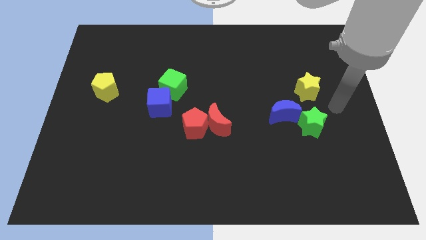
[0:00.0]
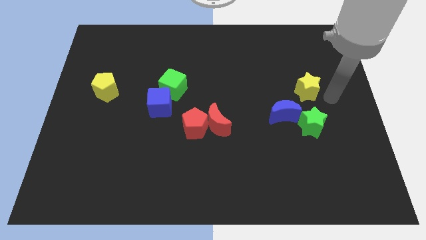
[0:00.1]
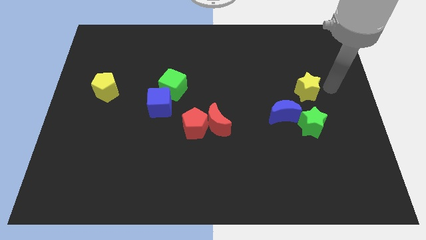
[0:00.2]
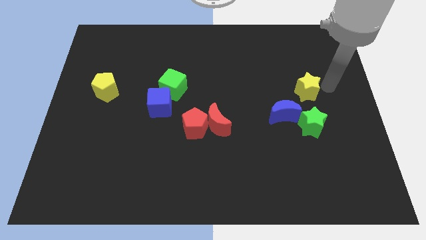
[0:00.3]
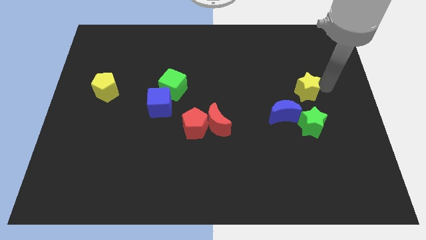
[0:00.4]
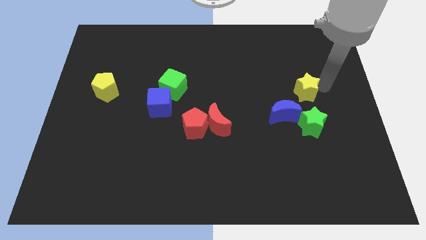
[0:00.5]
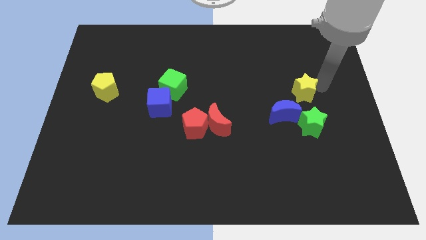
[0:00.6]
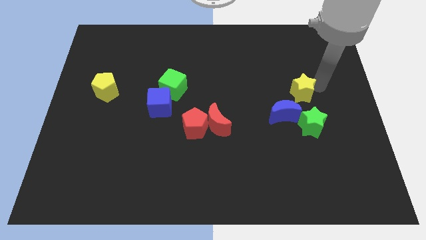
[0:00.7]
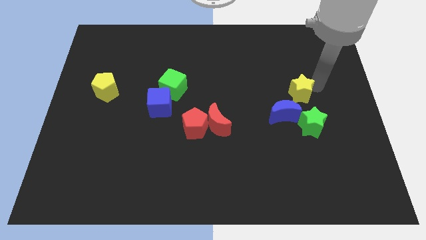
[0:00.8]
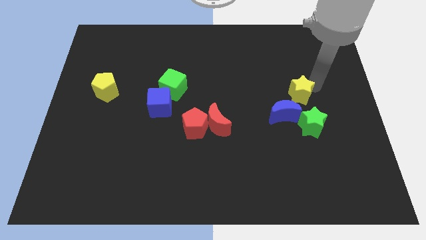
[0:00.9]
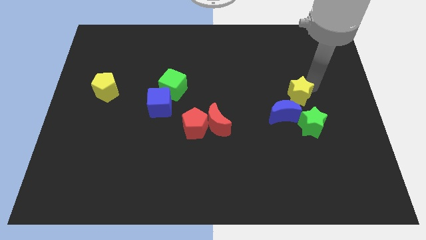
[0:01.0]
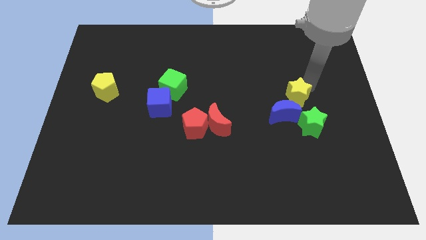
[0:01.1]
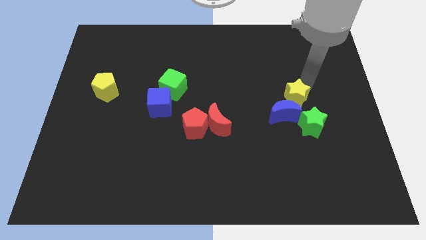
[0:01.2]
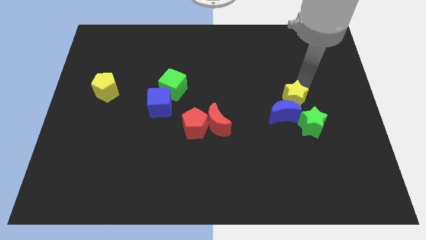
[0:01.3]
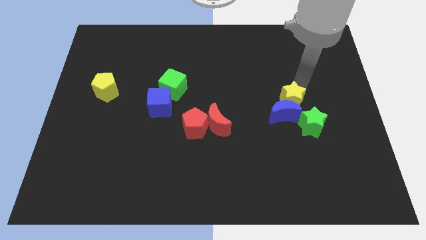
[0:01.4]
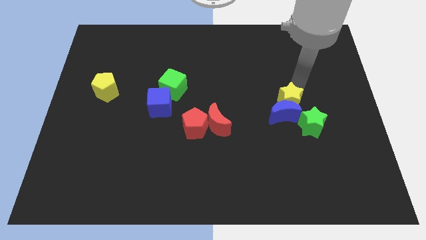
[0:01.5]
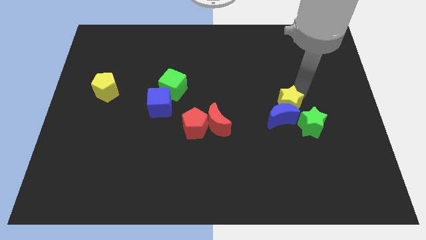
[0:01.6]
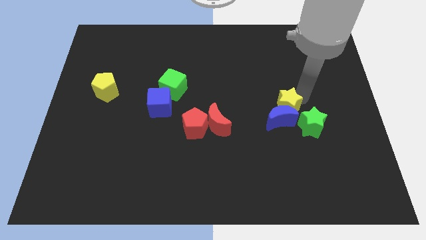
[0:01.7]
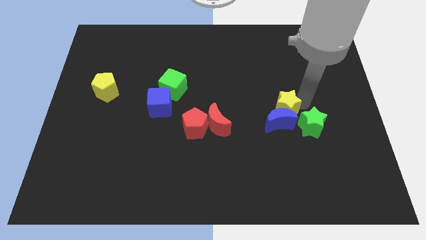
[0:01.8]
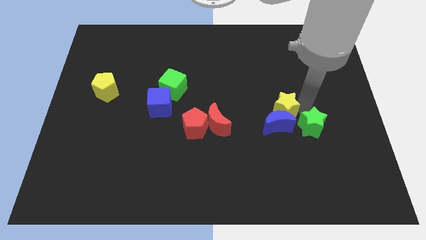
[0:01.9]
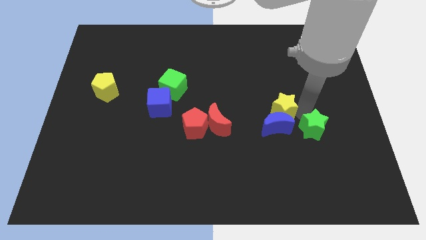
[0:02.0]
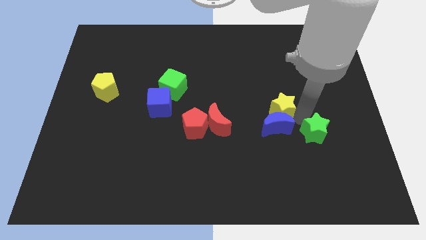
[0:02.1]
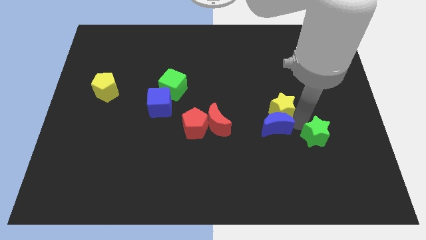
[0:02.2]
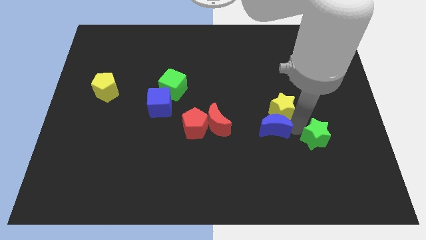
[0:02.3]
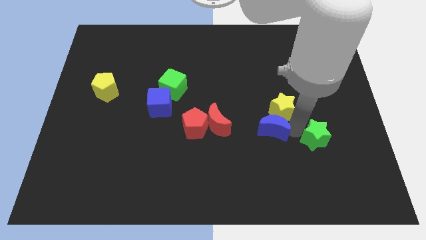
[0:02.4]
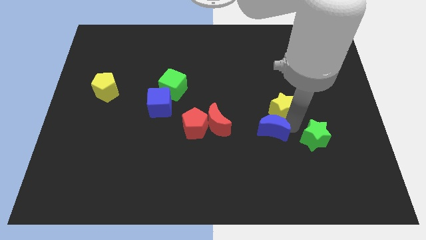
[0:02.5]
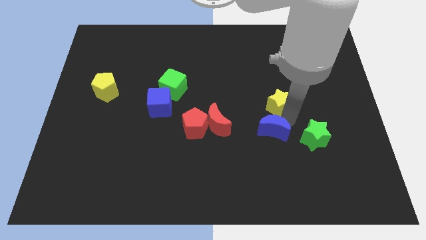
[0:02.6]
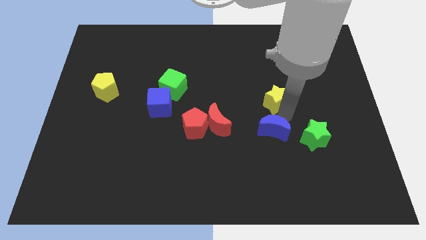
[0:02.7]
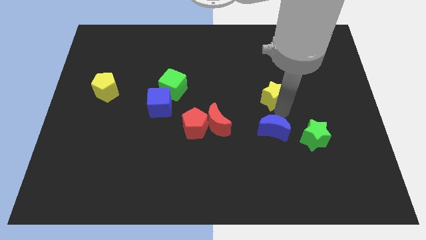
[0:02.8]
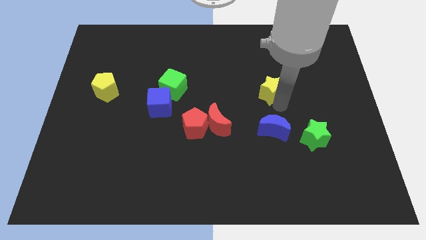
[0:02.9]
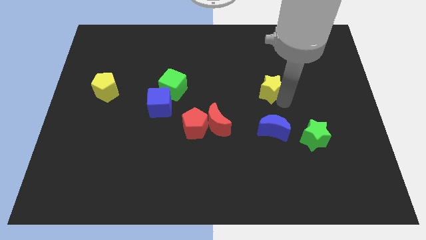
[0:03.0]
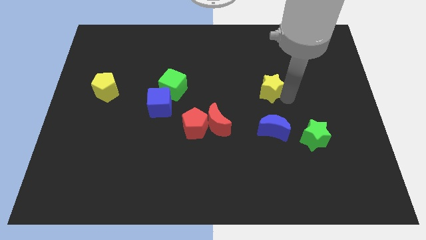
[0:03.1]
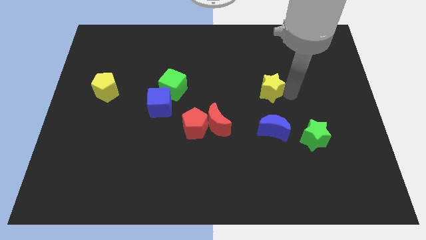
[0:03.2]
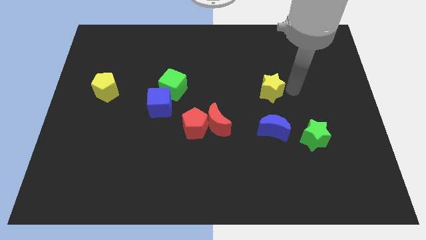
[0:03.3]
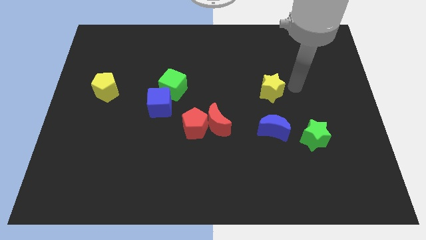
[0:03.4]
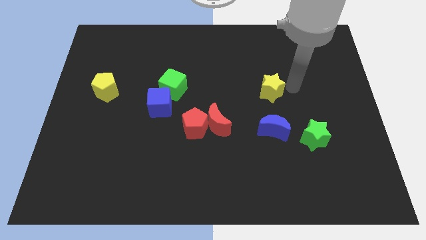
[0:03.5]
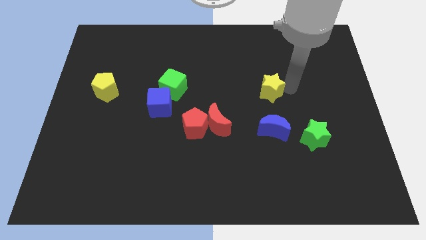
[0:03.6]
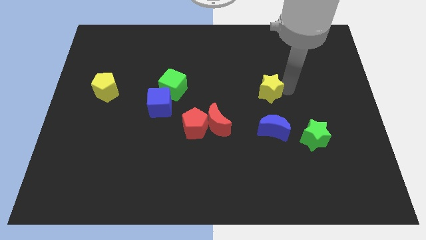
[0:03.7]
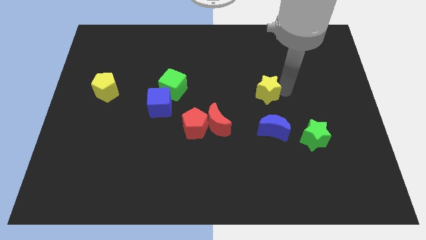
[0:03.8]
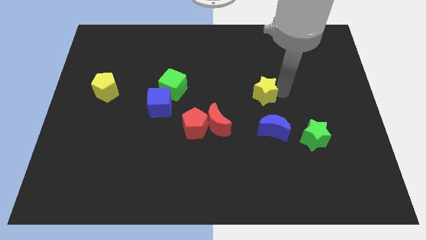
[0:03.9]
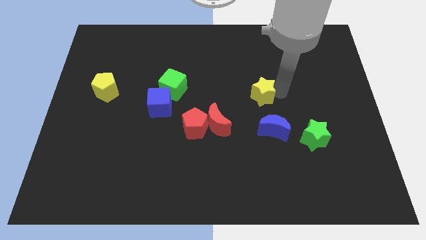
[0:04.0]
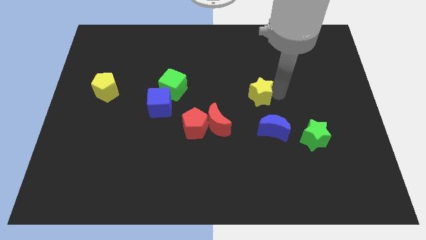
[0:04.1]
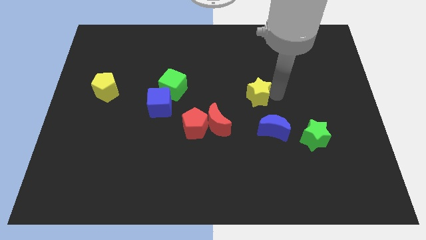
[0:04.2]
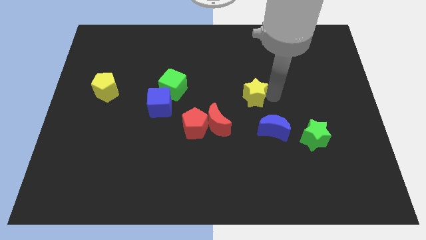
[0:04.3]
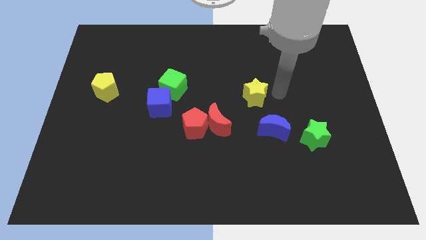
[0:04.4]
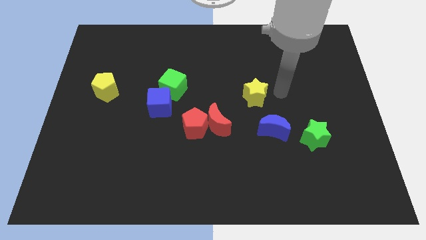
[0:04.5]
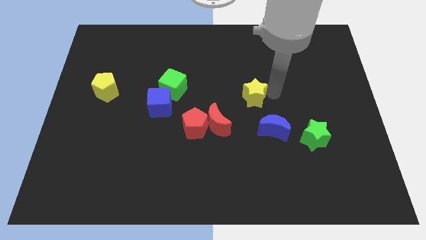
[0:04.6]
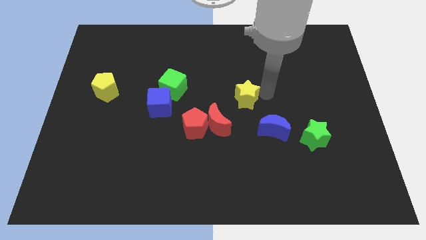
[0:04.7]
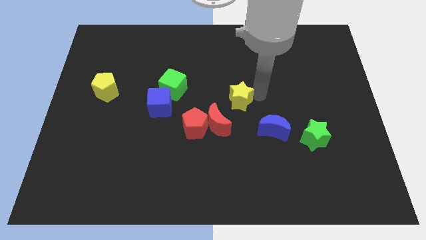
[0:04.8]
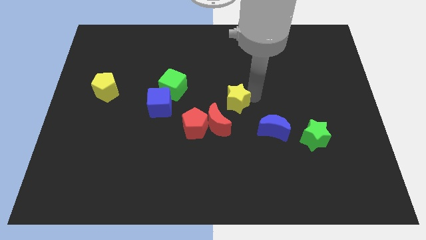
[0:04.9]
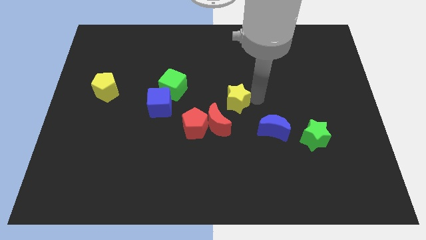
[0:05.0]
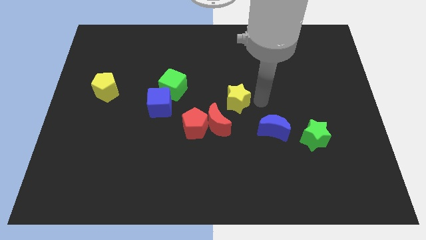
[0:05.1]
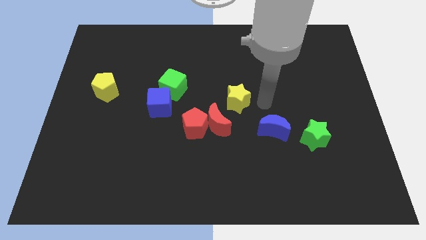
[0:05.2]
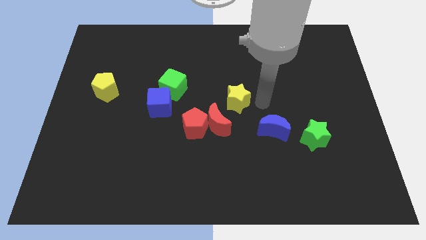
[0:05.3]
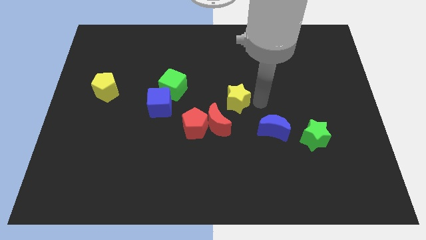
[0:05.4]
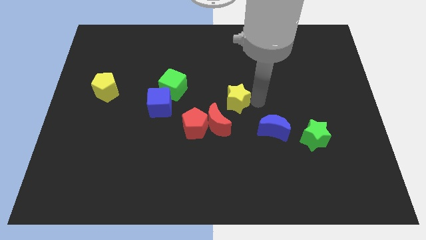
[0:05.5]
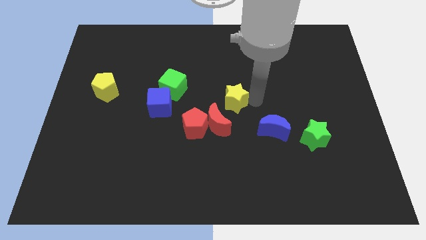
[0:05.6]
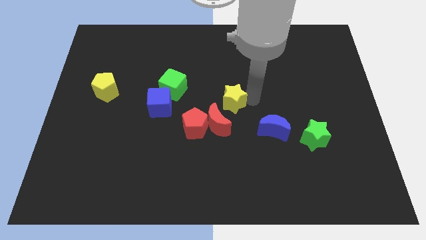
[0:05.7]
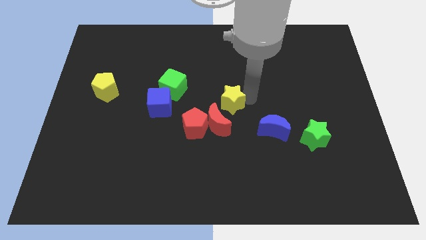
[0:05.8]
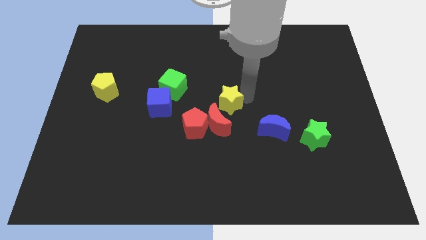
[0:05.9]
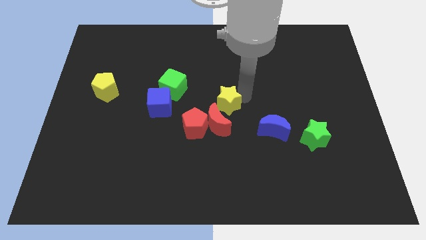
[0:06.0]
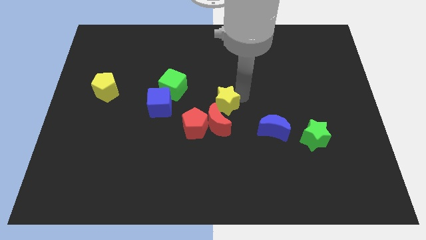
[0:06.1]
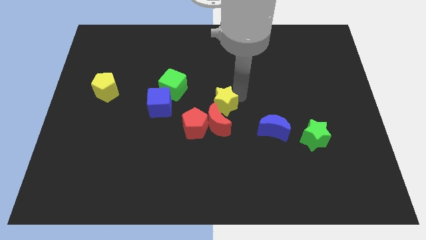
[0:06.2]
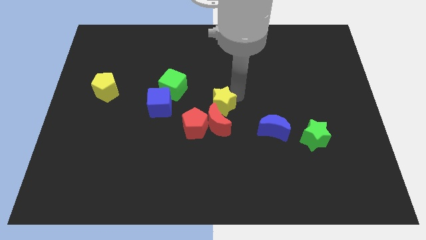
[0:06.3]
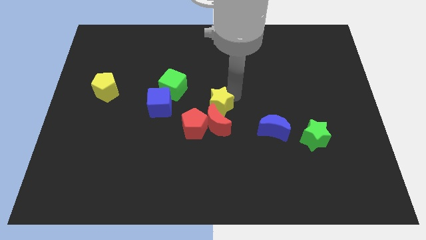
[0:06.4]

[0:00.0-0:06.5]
slide the yellow star to the top left side of the red moon

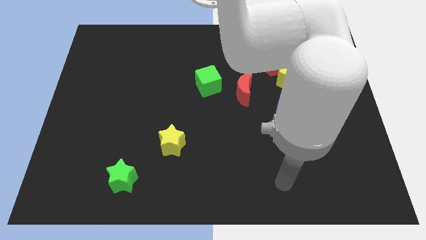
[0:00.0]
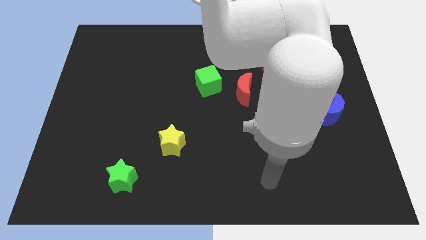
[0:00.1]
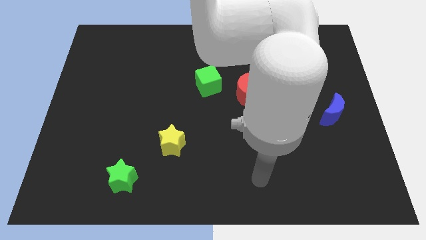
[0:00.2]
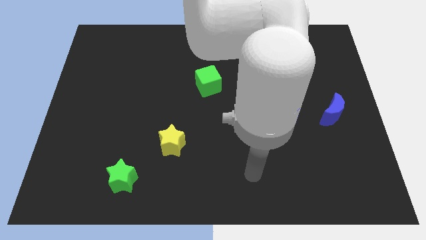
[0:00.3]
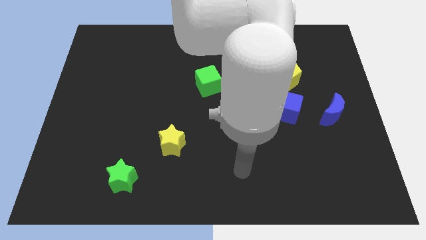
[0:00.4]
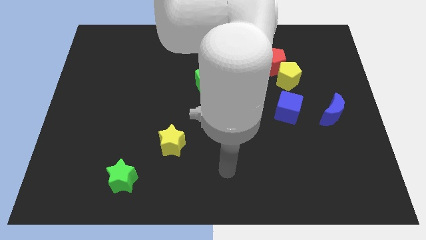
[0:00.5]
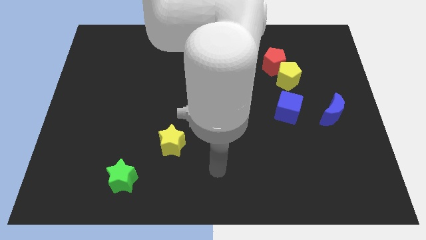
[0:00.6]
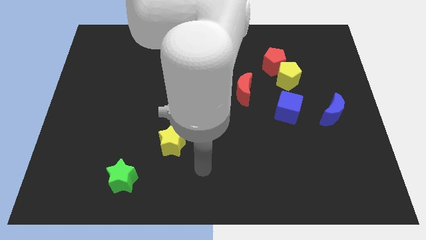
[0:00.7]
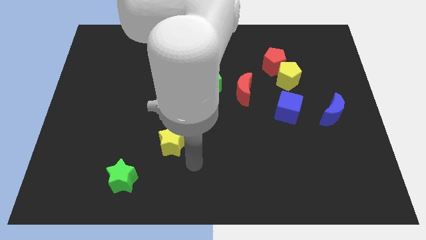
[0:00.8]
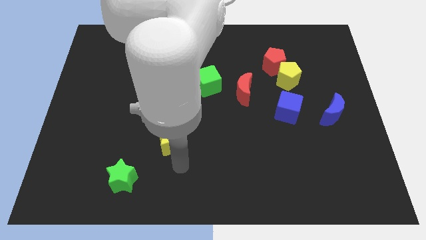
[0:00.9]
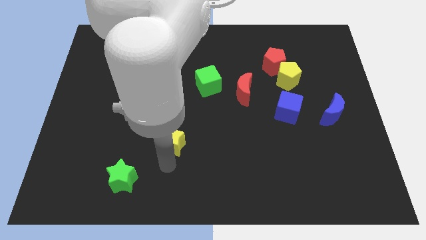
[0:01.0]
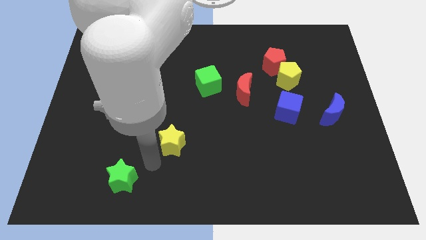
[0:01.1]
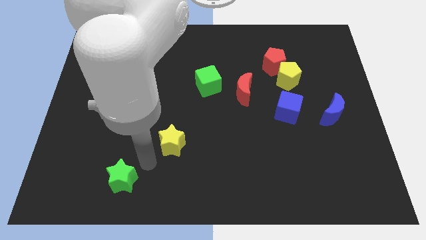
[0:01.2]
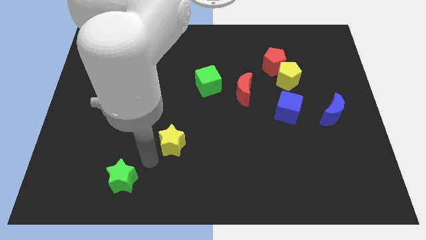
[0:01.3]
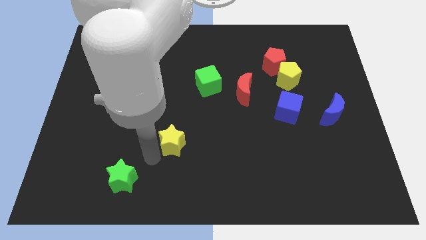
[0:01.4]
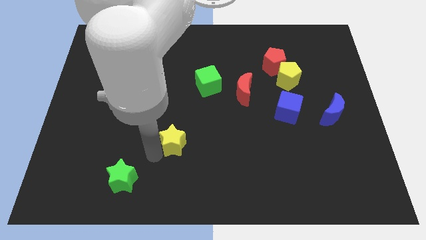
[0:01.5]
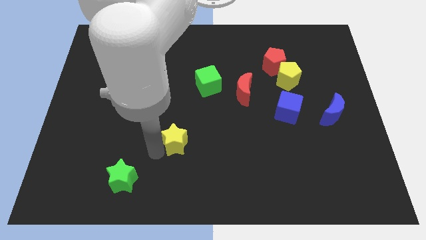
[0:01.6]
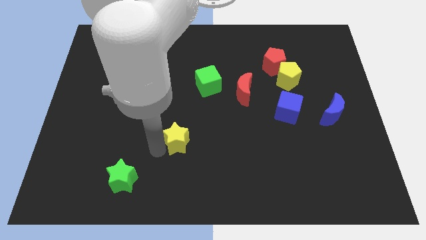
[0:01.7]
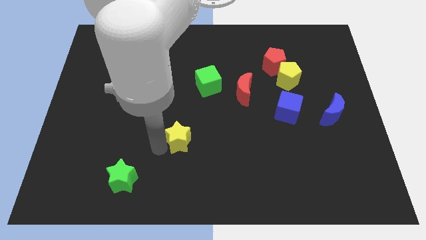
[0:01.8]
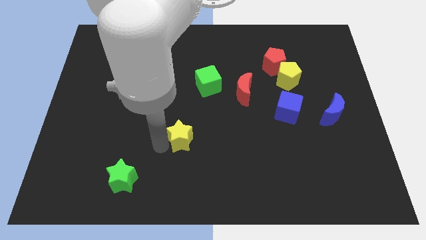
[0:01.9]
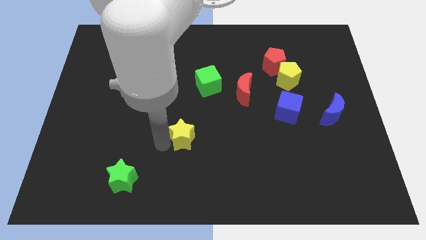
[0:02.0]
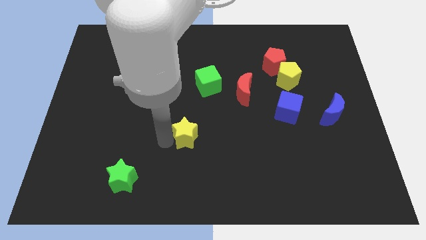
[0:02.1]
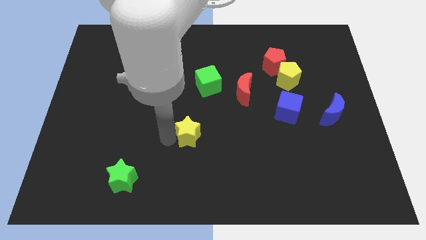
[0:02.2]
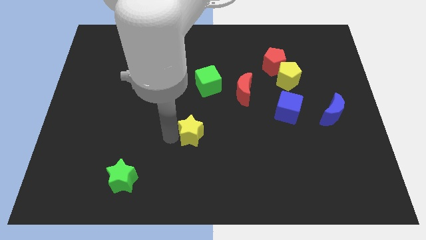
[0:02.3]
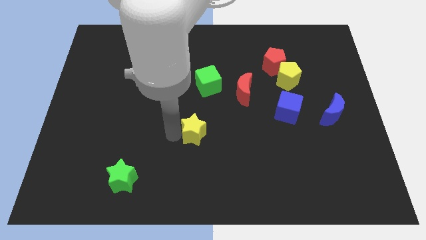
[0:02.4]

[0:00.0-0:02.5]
slide the yellow star to the bottom side of the green cube
